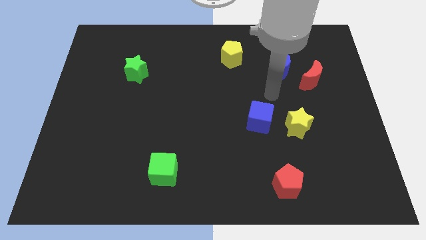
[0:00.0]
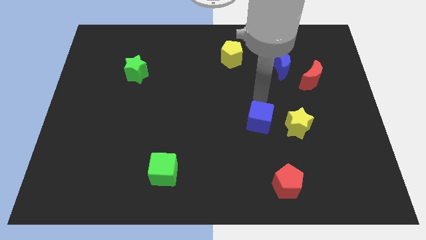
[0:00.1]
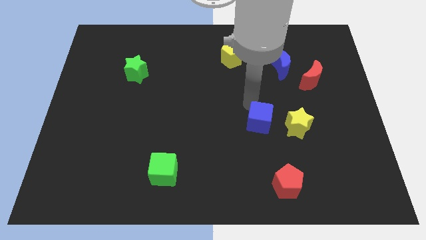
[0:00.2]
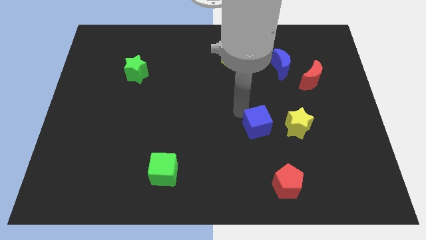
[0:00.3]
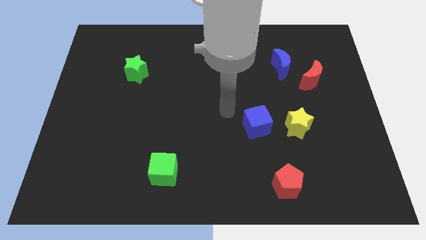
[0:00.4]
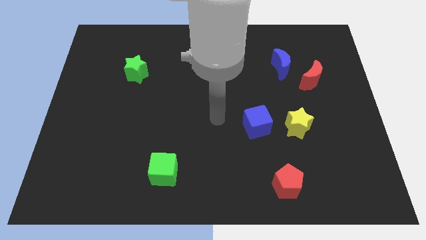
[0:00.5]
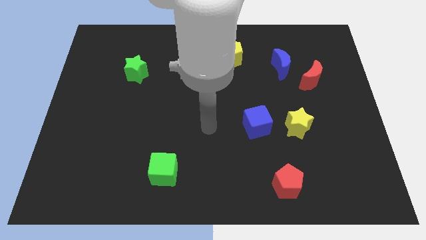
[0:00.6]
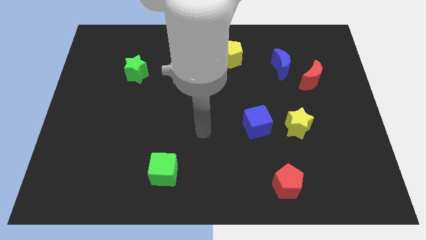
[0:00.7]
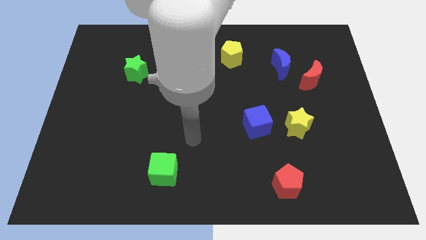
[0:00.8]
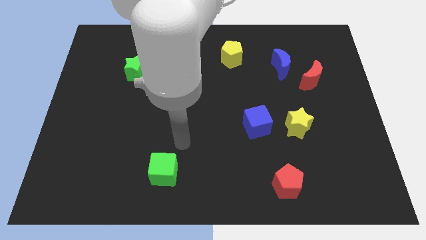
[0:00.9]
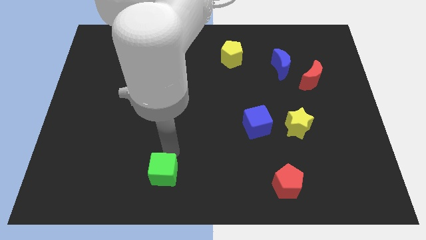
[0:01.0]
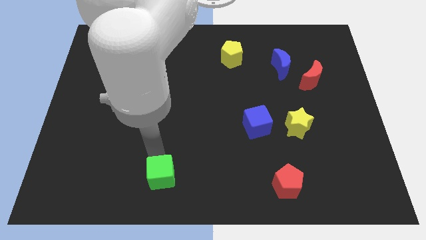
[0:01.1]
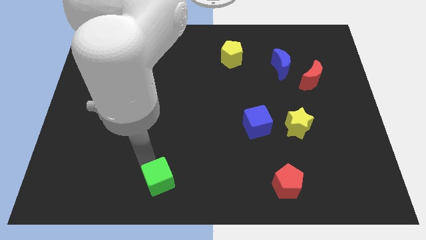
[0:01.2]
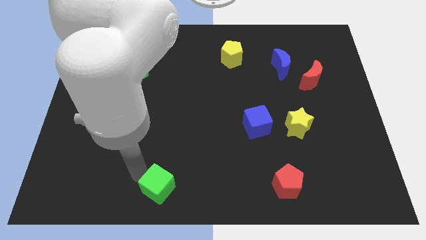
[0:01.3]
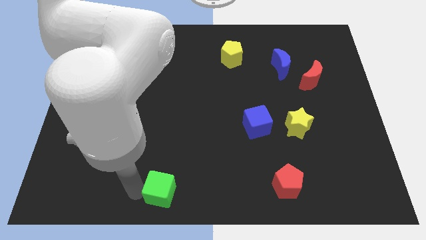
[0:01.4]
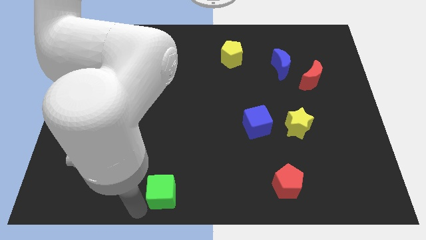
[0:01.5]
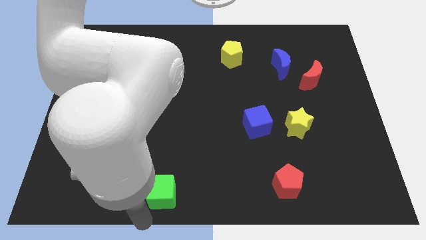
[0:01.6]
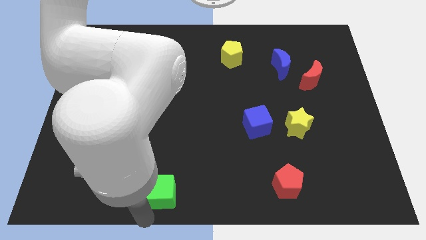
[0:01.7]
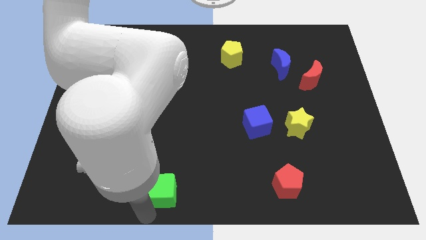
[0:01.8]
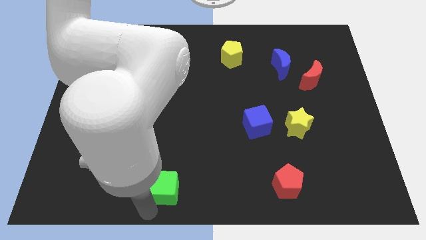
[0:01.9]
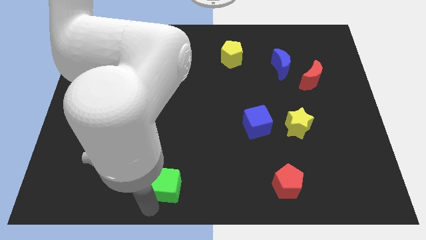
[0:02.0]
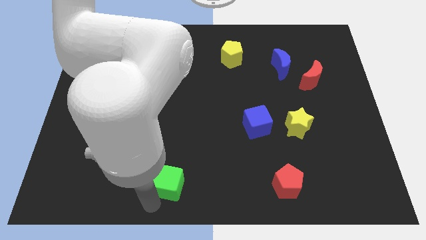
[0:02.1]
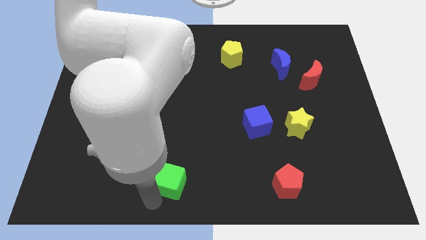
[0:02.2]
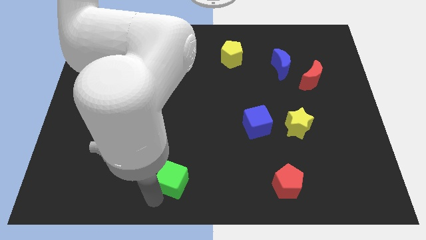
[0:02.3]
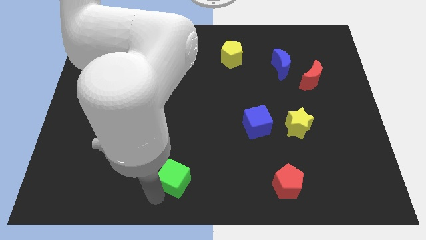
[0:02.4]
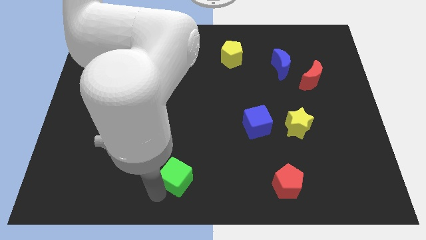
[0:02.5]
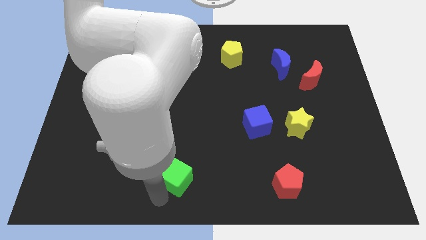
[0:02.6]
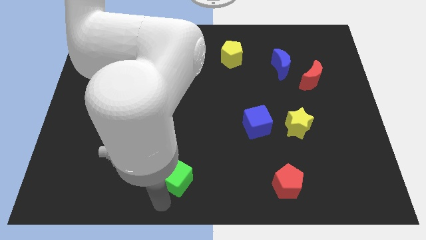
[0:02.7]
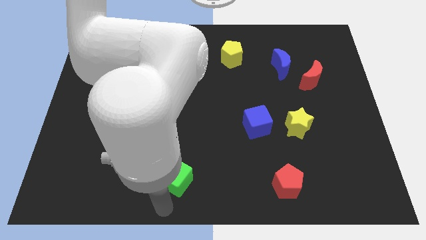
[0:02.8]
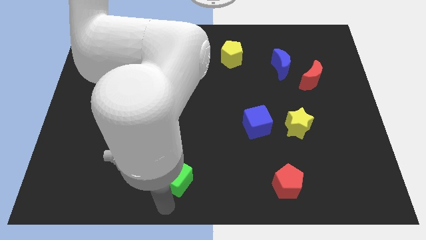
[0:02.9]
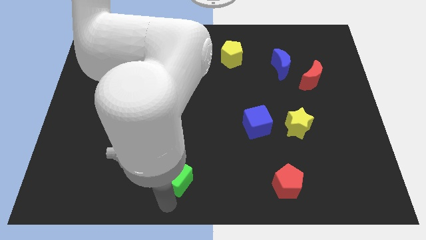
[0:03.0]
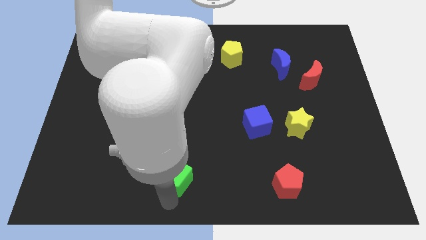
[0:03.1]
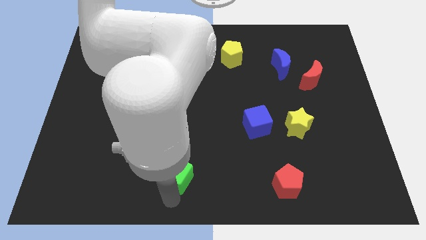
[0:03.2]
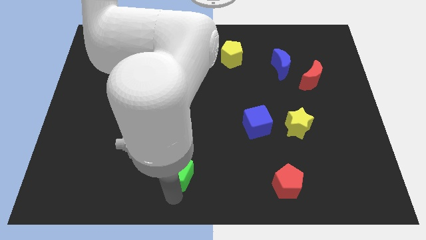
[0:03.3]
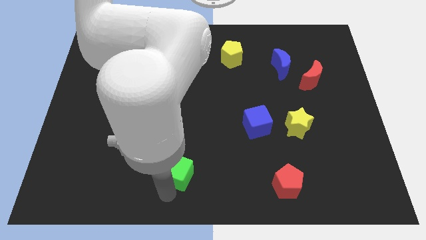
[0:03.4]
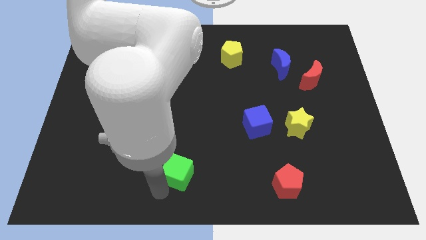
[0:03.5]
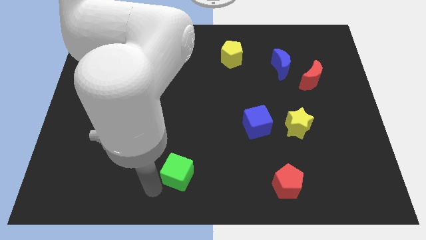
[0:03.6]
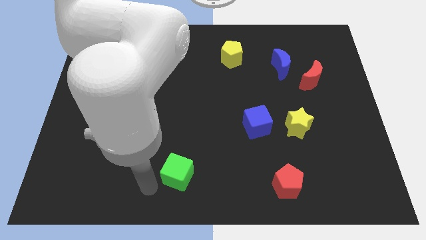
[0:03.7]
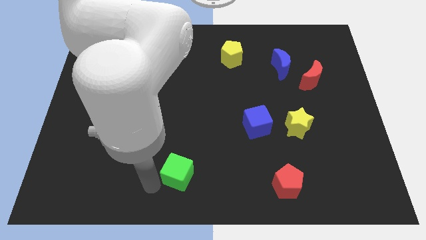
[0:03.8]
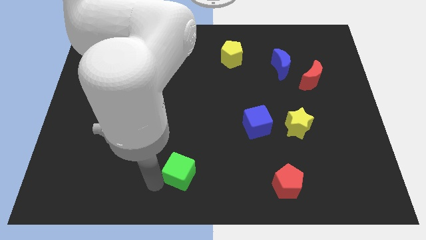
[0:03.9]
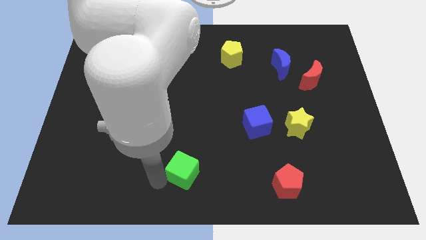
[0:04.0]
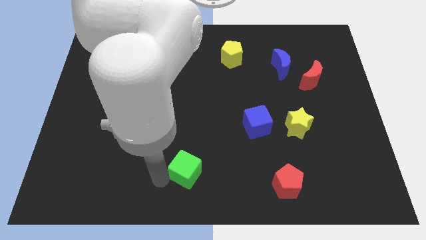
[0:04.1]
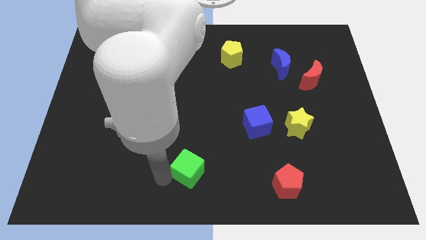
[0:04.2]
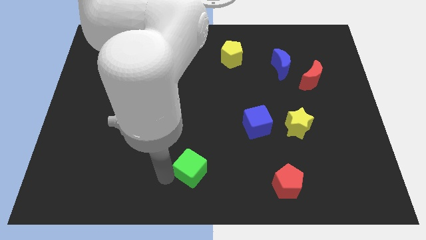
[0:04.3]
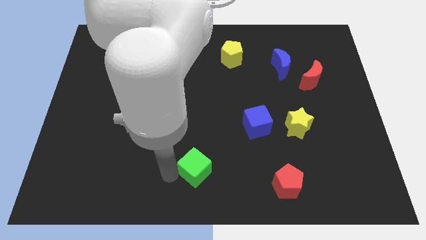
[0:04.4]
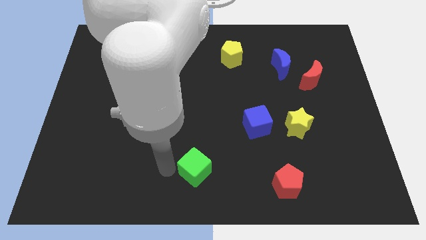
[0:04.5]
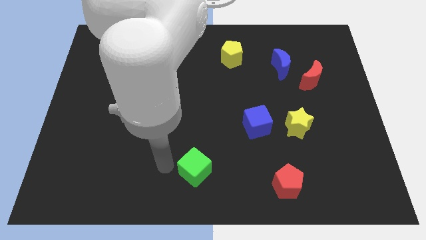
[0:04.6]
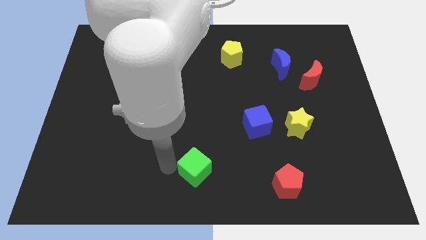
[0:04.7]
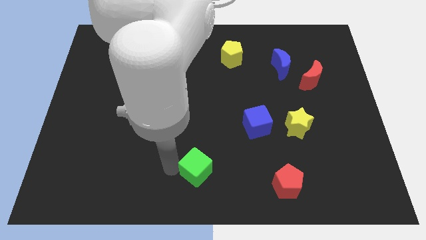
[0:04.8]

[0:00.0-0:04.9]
move the green cube somewhat to the right

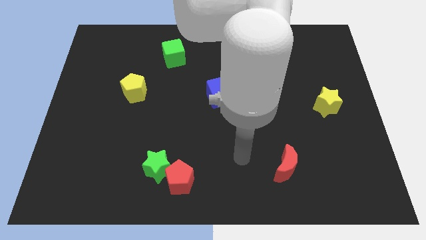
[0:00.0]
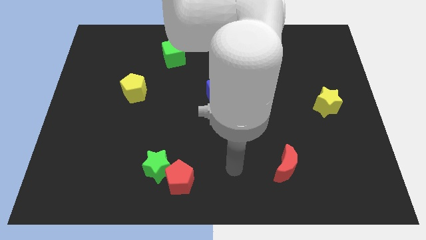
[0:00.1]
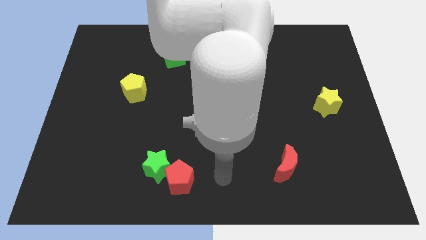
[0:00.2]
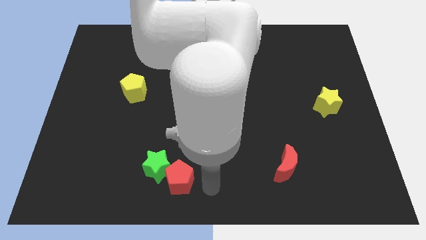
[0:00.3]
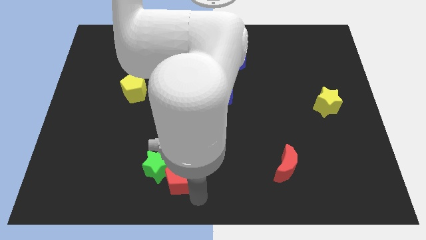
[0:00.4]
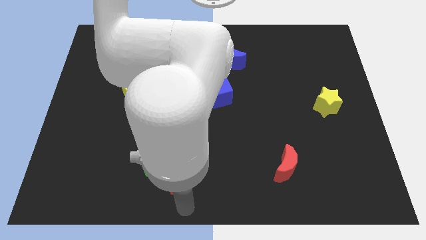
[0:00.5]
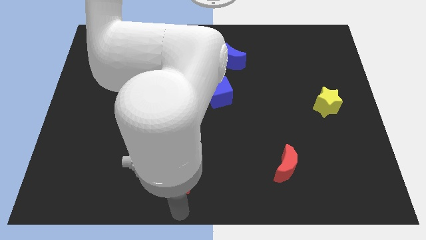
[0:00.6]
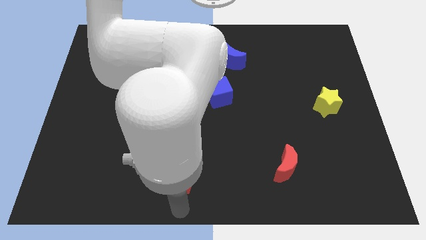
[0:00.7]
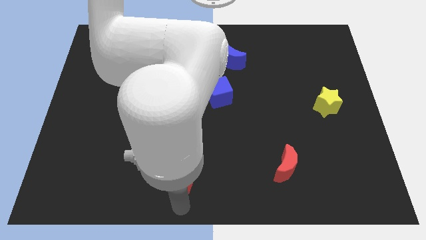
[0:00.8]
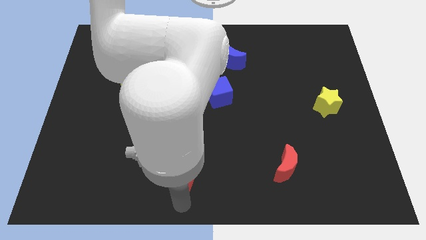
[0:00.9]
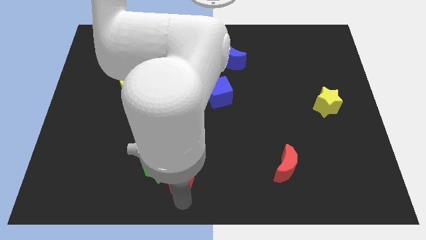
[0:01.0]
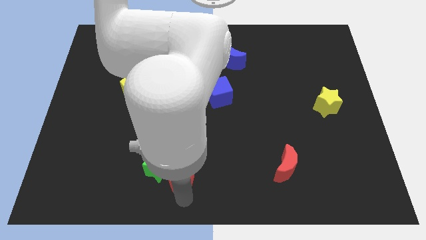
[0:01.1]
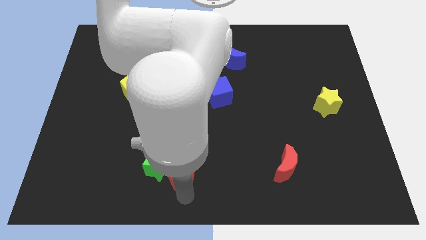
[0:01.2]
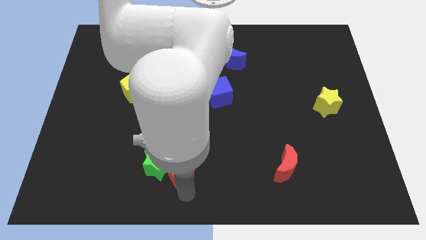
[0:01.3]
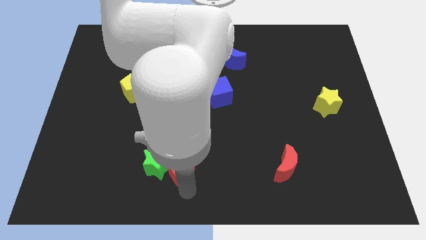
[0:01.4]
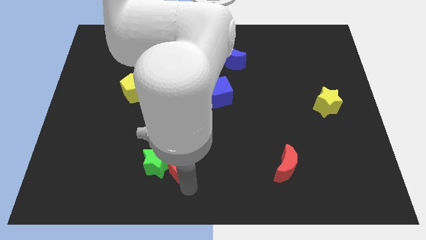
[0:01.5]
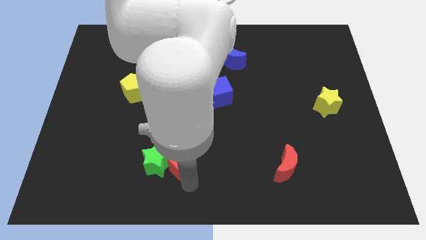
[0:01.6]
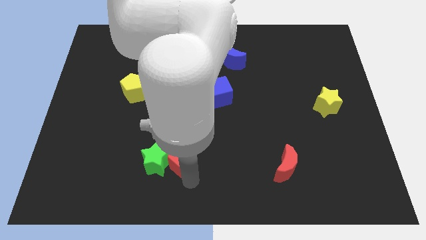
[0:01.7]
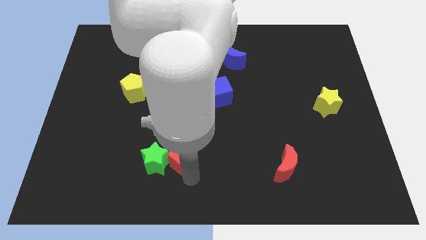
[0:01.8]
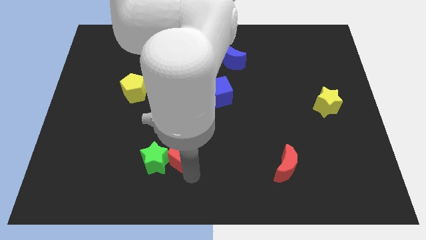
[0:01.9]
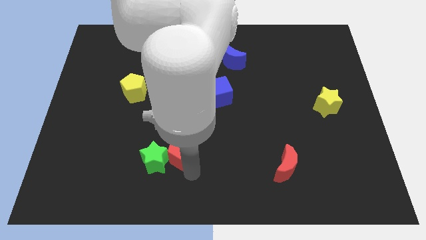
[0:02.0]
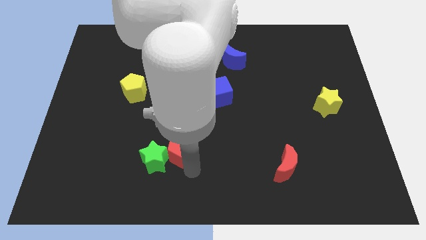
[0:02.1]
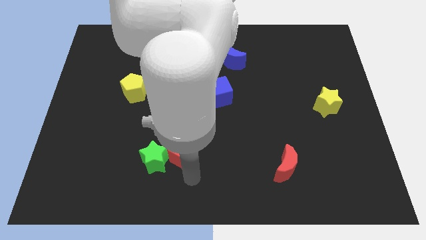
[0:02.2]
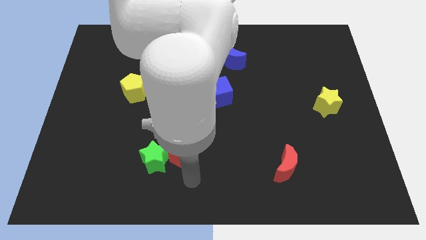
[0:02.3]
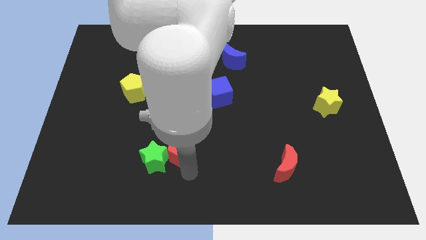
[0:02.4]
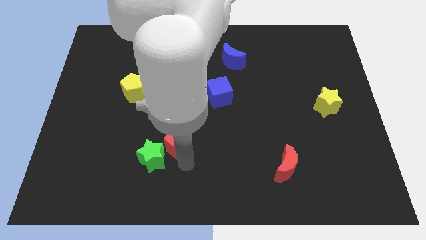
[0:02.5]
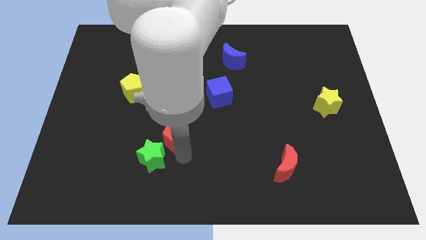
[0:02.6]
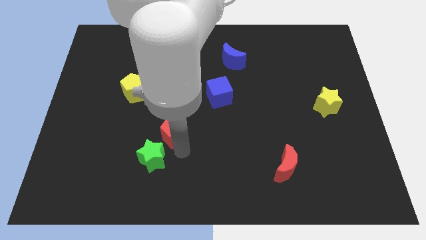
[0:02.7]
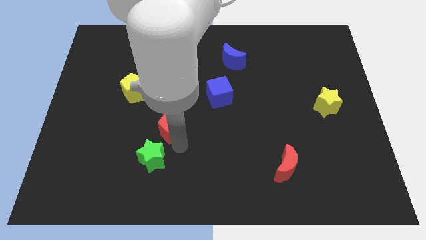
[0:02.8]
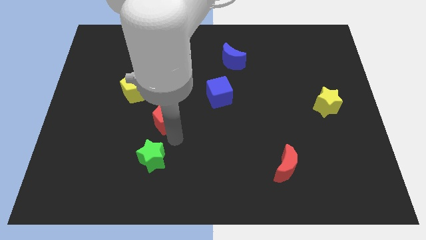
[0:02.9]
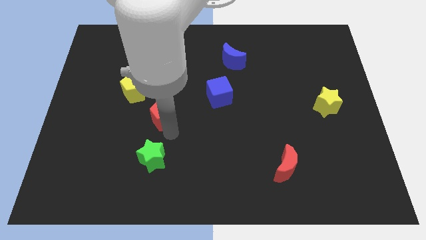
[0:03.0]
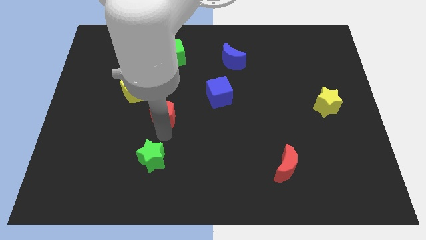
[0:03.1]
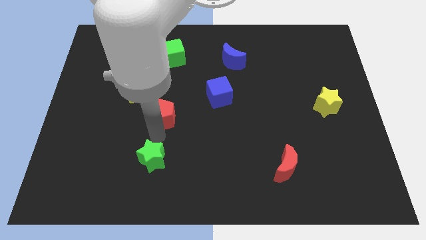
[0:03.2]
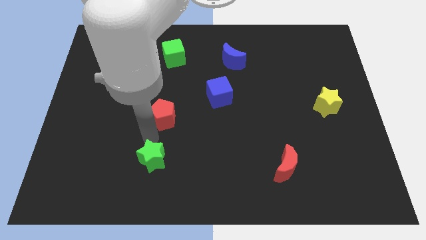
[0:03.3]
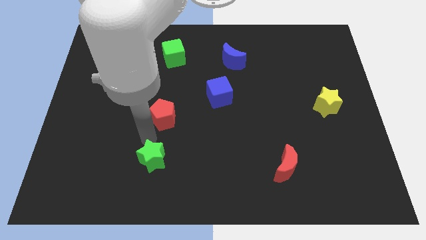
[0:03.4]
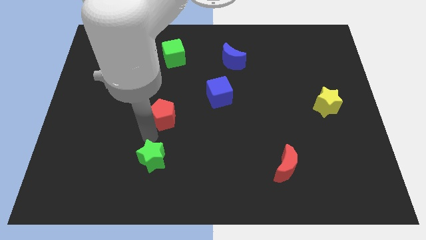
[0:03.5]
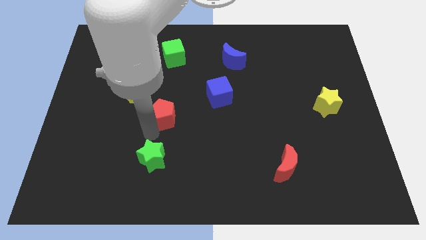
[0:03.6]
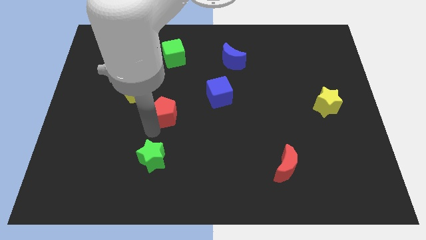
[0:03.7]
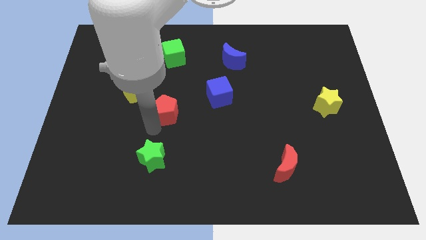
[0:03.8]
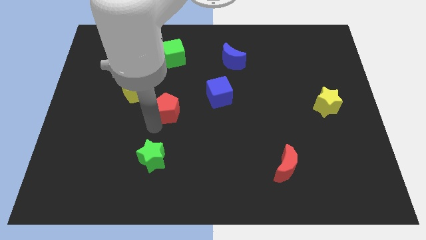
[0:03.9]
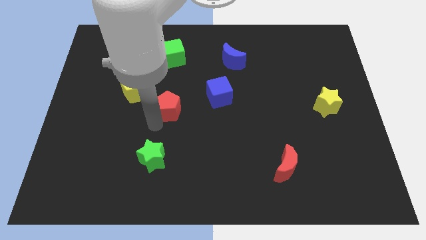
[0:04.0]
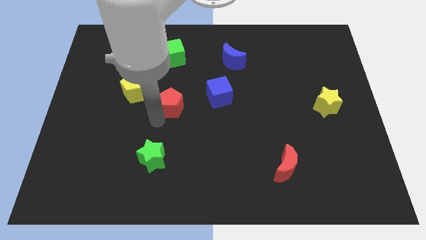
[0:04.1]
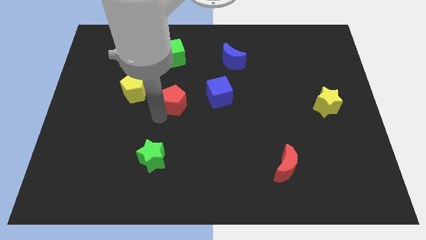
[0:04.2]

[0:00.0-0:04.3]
slide the red pentagon up
